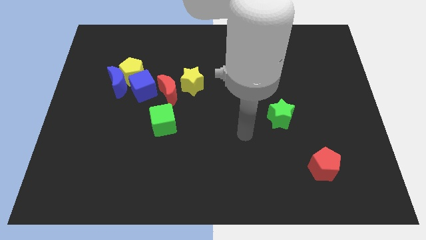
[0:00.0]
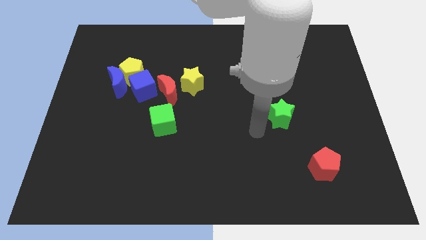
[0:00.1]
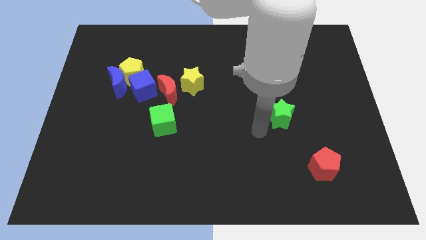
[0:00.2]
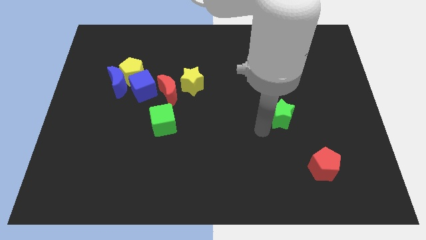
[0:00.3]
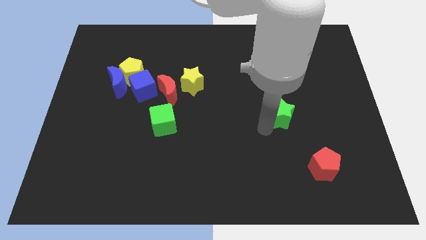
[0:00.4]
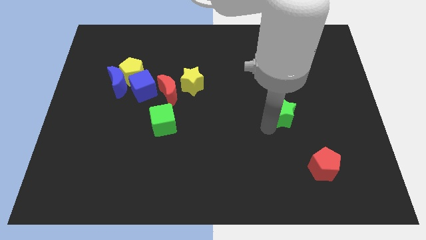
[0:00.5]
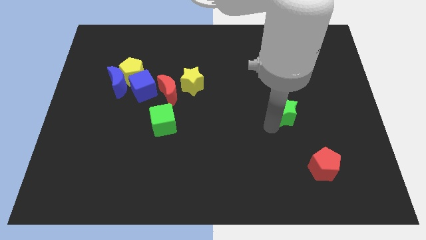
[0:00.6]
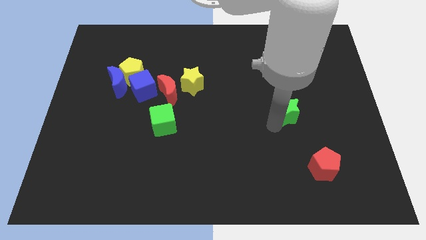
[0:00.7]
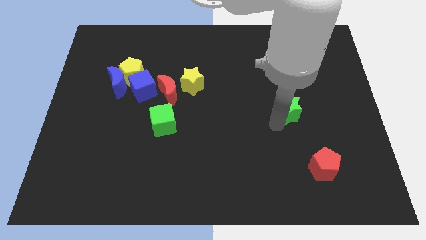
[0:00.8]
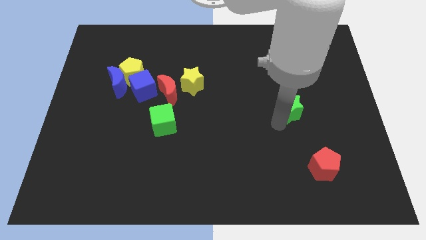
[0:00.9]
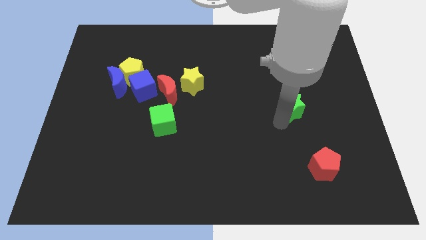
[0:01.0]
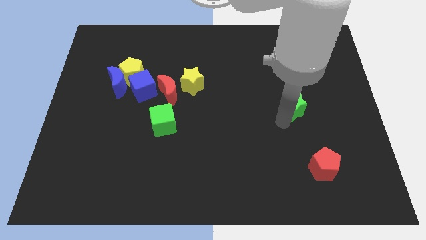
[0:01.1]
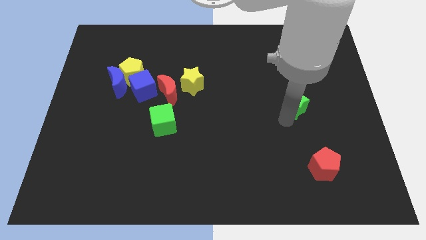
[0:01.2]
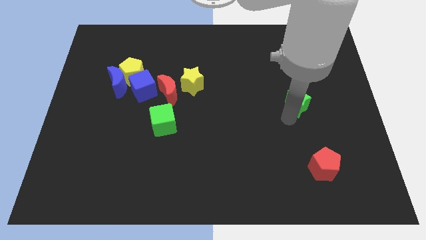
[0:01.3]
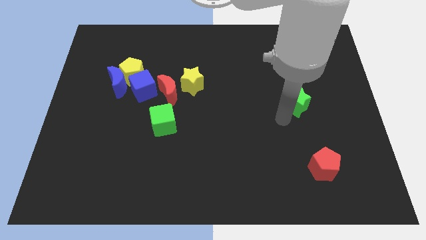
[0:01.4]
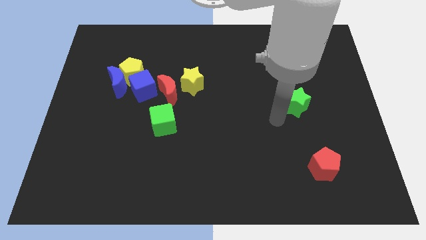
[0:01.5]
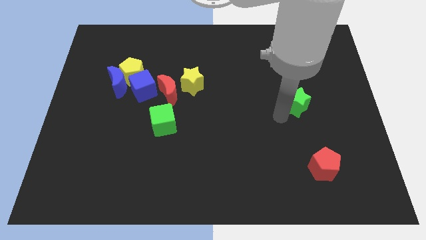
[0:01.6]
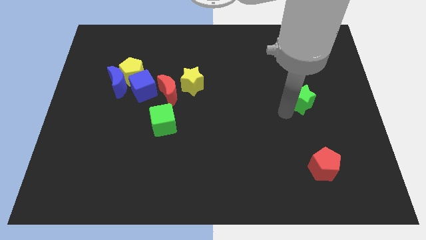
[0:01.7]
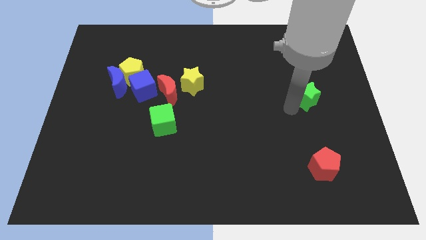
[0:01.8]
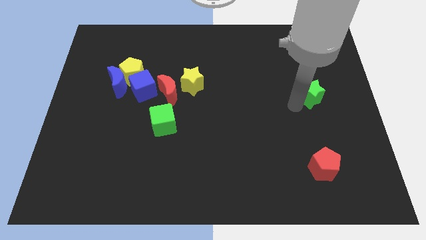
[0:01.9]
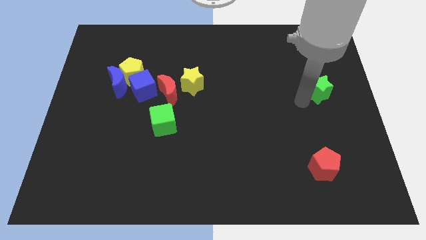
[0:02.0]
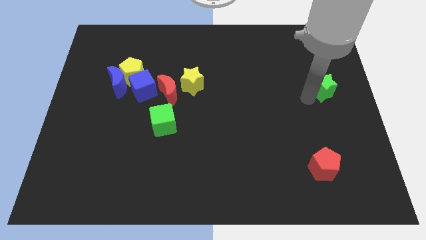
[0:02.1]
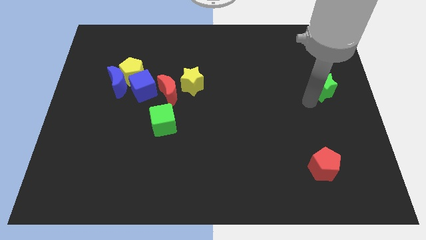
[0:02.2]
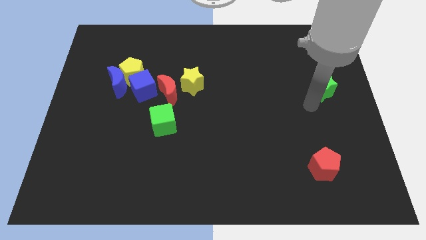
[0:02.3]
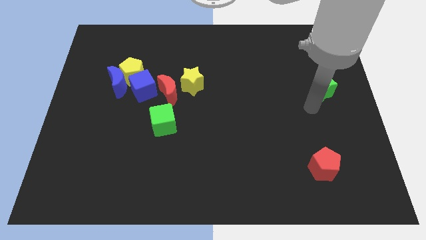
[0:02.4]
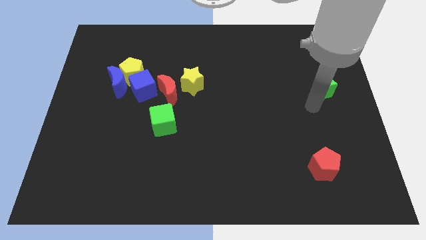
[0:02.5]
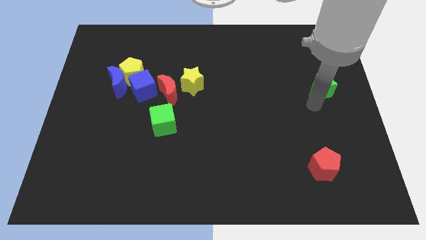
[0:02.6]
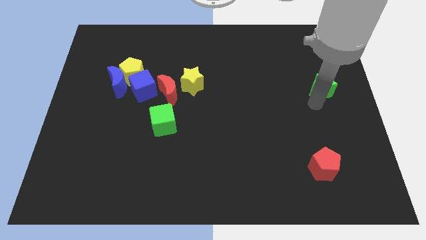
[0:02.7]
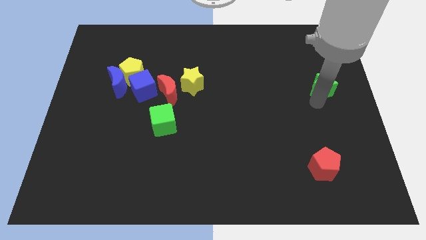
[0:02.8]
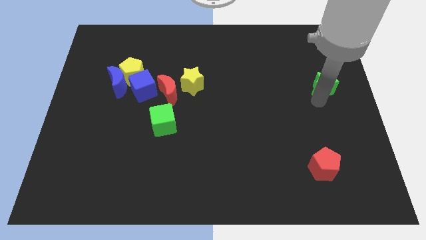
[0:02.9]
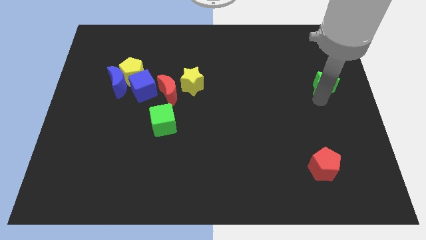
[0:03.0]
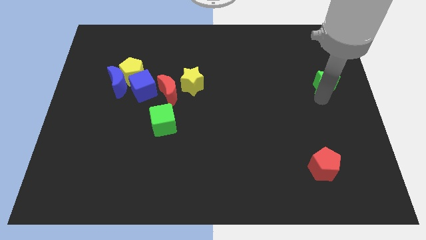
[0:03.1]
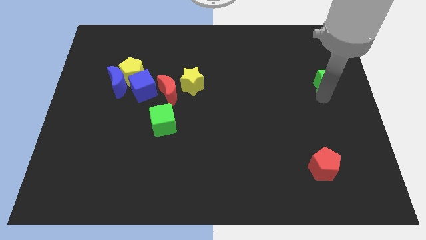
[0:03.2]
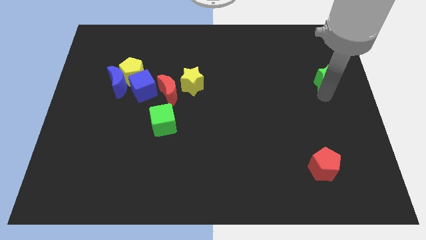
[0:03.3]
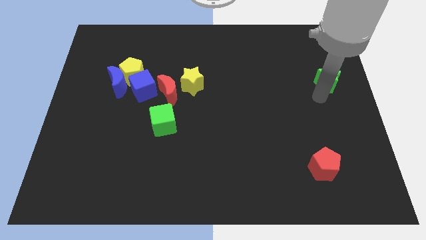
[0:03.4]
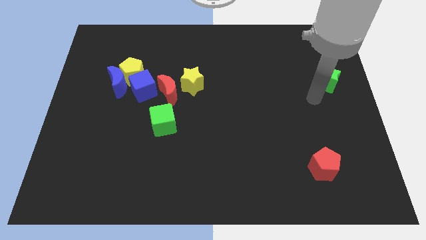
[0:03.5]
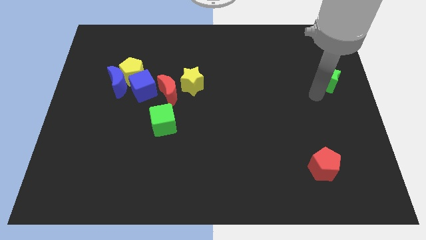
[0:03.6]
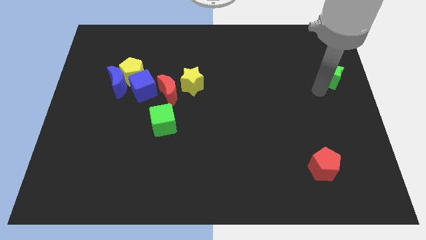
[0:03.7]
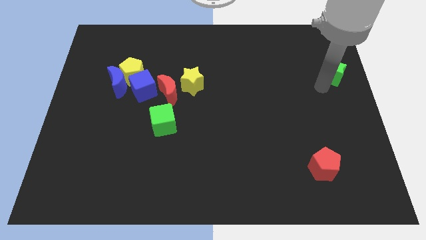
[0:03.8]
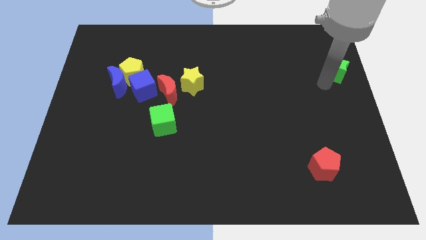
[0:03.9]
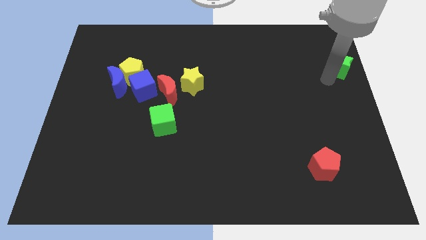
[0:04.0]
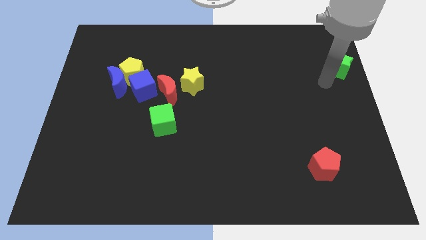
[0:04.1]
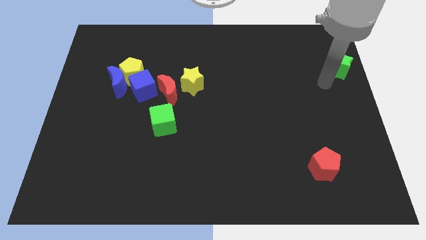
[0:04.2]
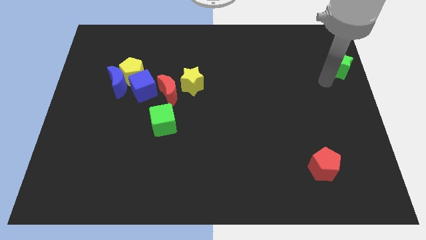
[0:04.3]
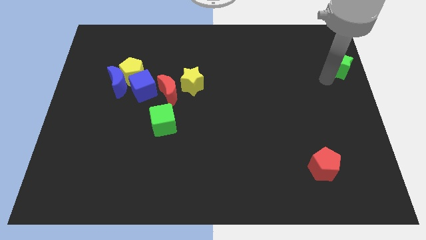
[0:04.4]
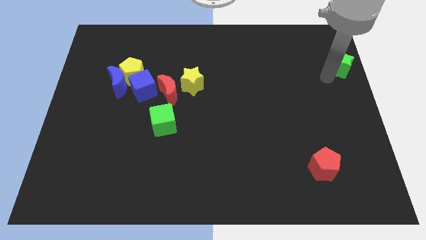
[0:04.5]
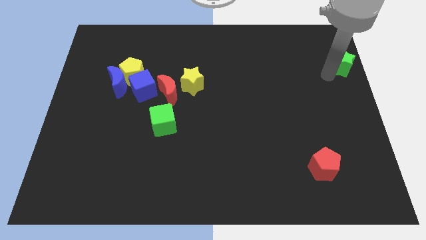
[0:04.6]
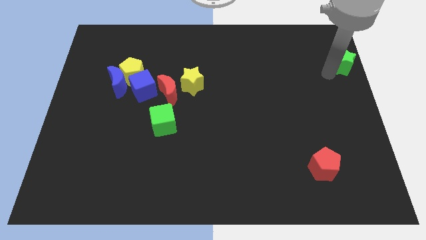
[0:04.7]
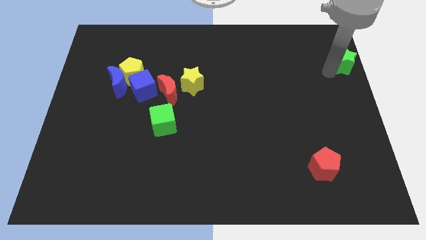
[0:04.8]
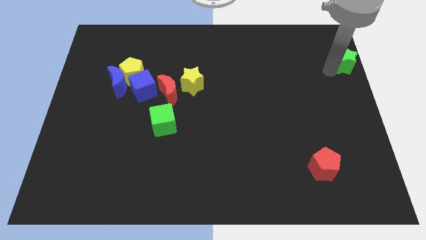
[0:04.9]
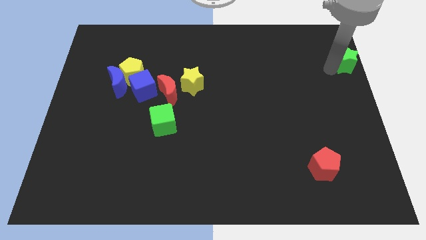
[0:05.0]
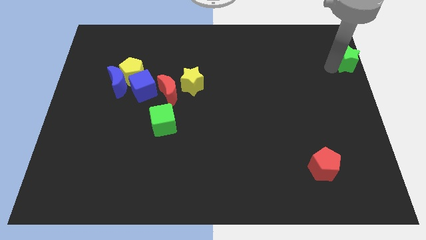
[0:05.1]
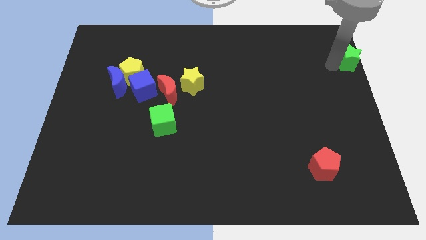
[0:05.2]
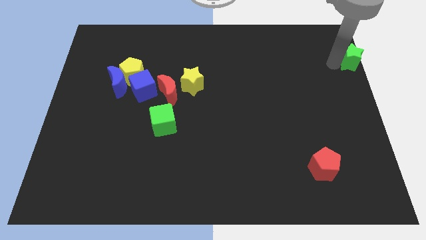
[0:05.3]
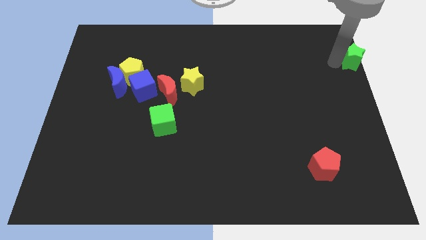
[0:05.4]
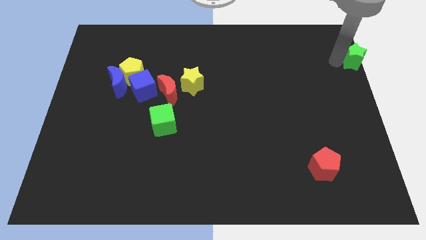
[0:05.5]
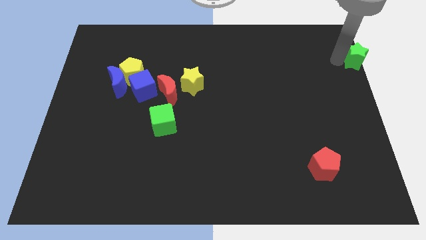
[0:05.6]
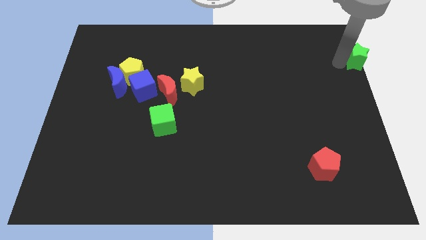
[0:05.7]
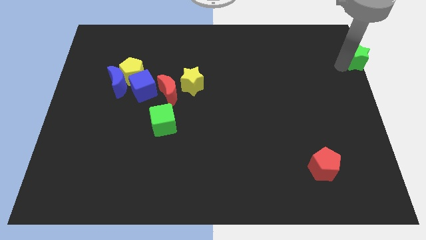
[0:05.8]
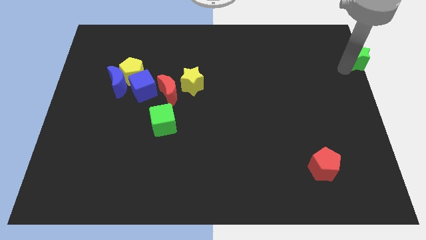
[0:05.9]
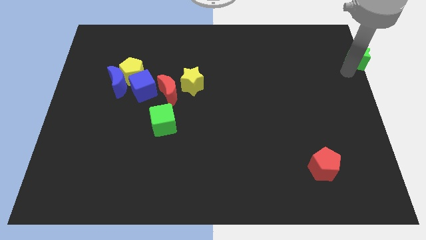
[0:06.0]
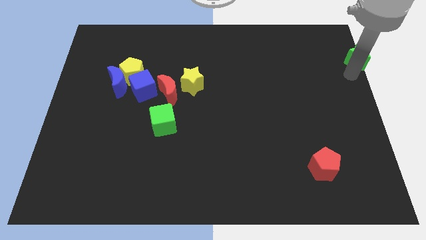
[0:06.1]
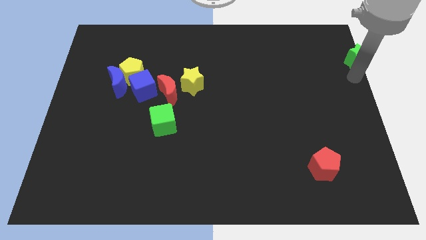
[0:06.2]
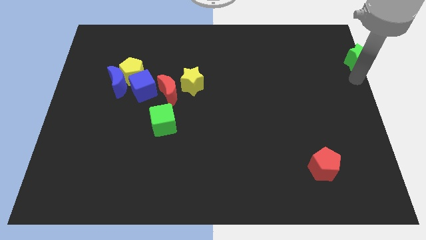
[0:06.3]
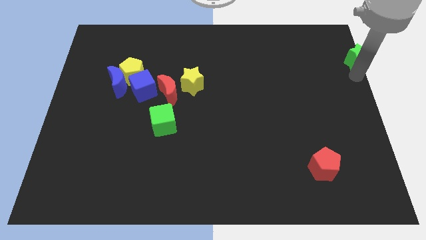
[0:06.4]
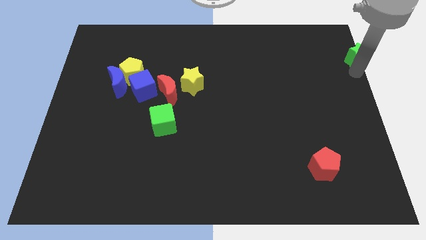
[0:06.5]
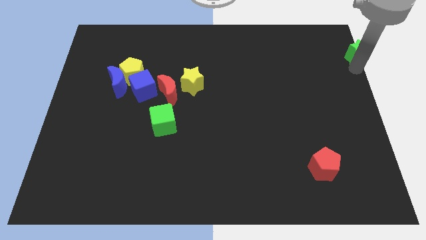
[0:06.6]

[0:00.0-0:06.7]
slide the green star to the top right
